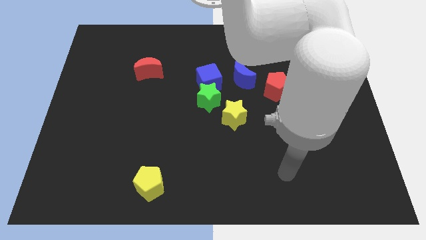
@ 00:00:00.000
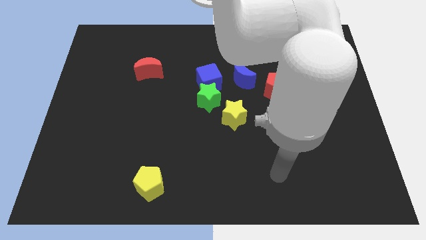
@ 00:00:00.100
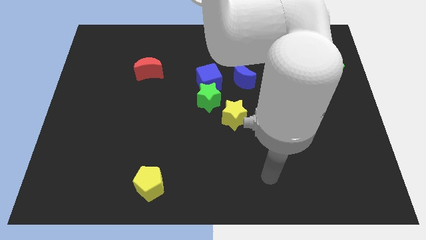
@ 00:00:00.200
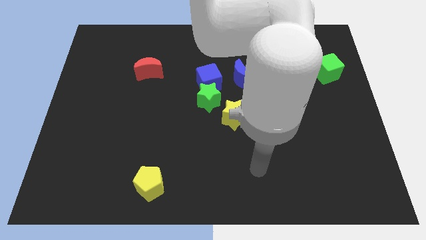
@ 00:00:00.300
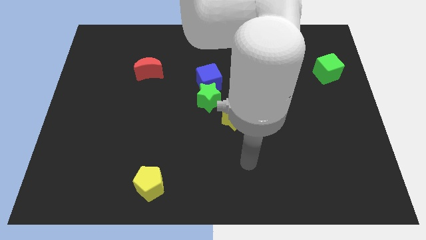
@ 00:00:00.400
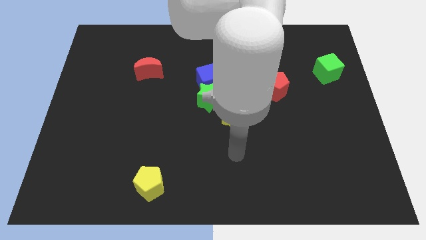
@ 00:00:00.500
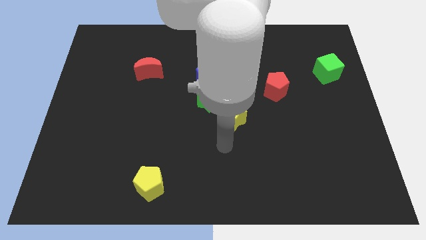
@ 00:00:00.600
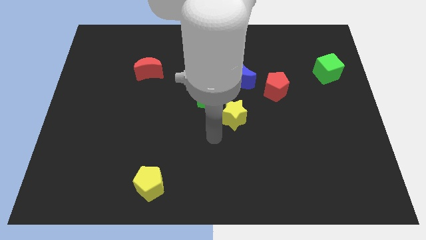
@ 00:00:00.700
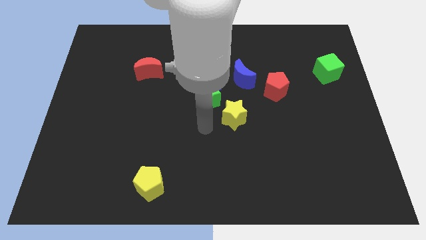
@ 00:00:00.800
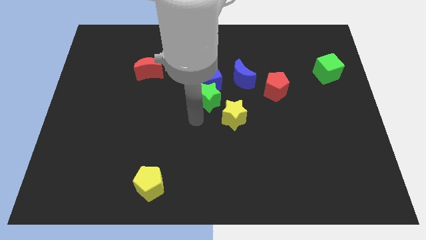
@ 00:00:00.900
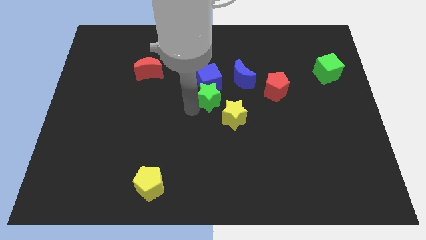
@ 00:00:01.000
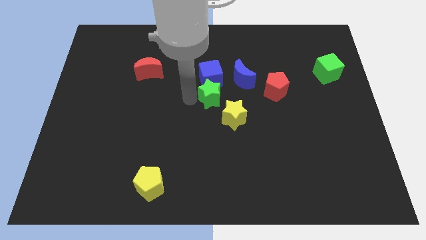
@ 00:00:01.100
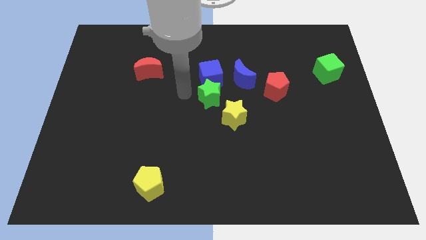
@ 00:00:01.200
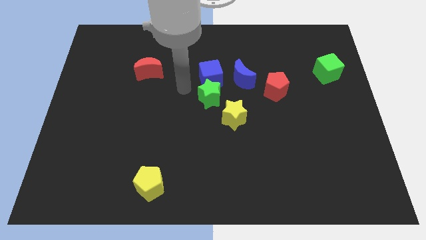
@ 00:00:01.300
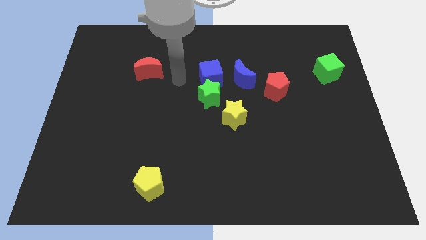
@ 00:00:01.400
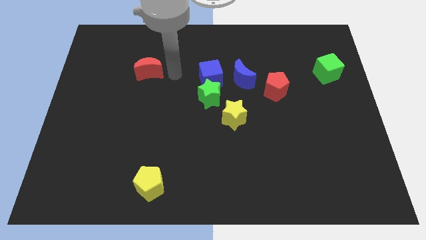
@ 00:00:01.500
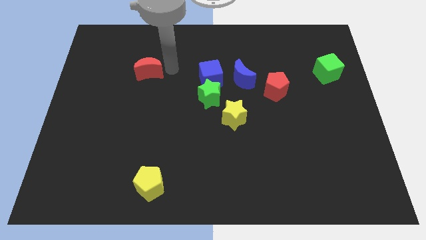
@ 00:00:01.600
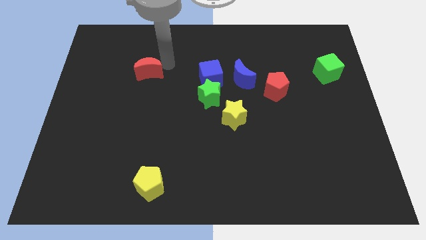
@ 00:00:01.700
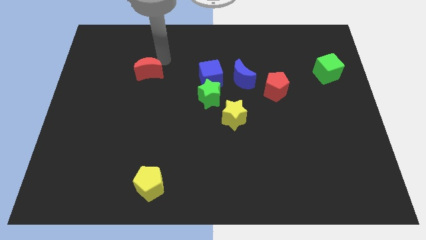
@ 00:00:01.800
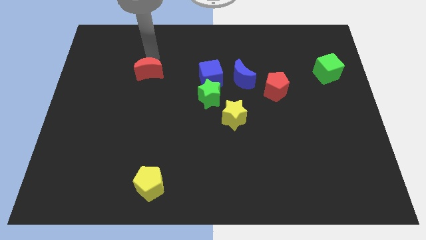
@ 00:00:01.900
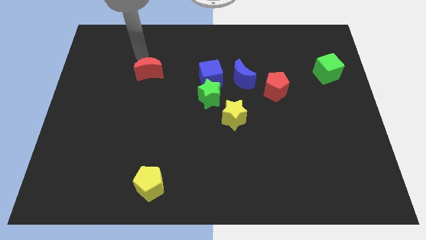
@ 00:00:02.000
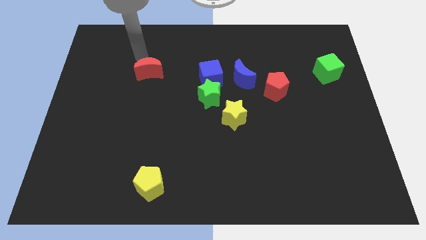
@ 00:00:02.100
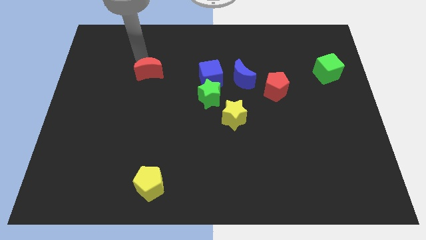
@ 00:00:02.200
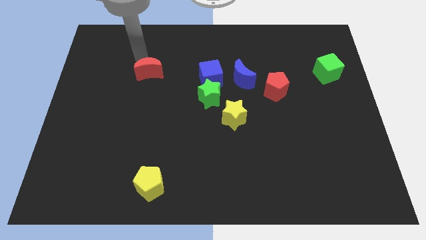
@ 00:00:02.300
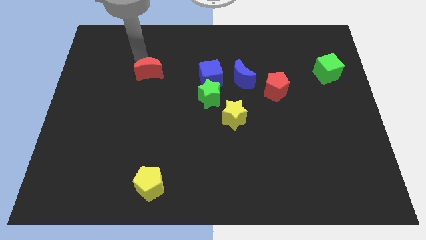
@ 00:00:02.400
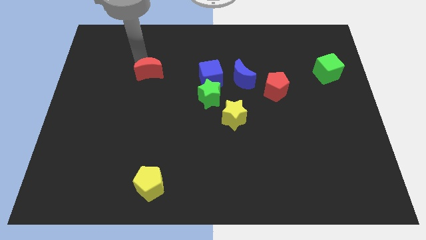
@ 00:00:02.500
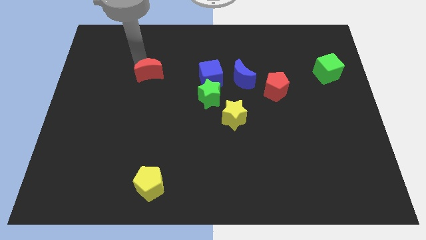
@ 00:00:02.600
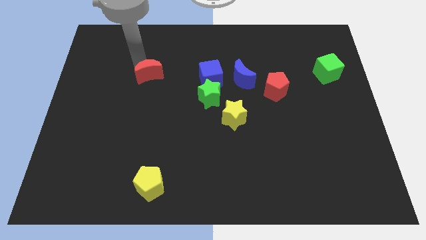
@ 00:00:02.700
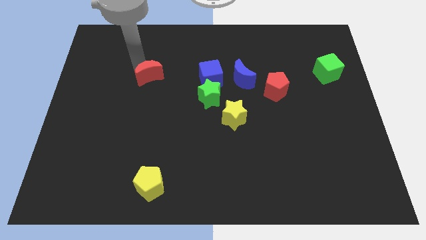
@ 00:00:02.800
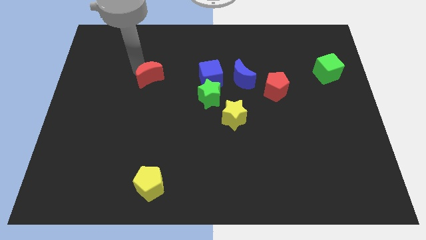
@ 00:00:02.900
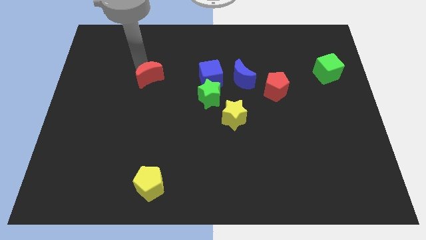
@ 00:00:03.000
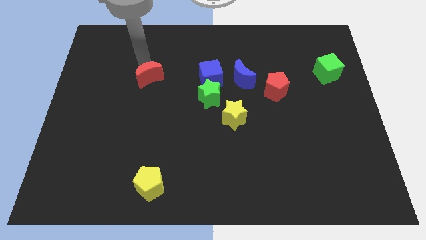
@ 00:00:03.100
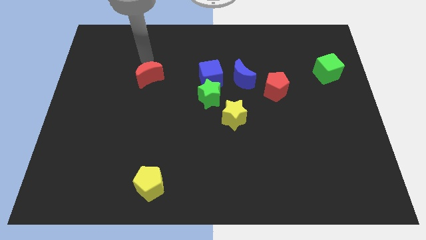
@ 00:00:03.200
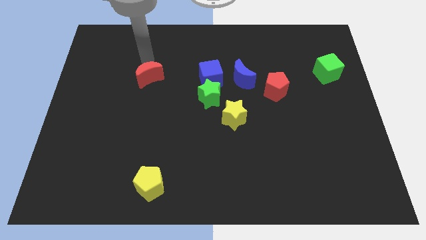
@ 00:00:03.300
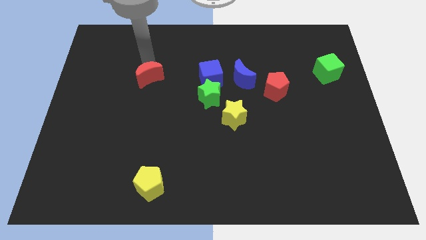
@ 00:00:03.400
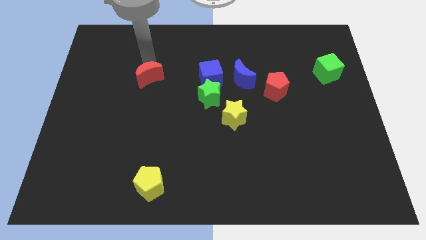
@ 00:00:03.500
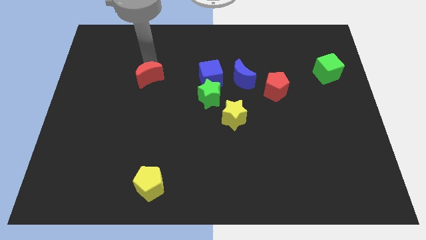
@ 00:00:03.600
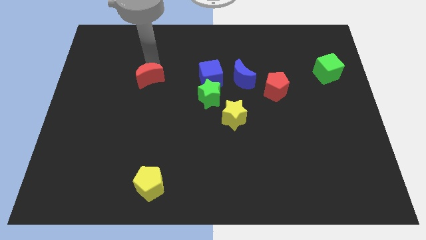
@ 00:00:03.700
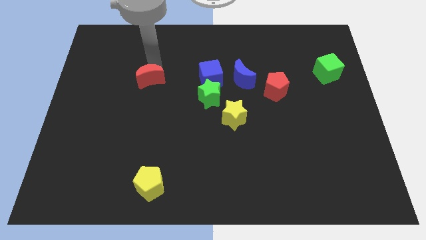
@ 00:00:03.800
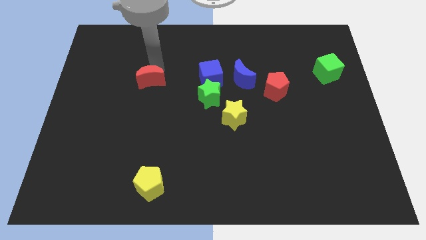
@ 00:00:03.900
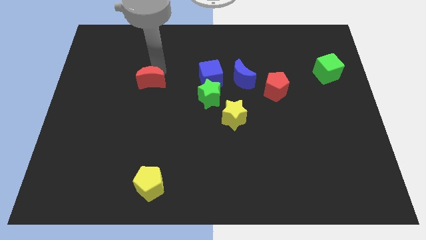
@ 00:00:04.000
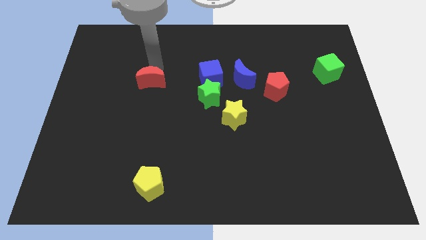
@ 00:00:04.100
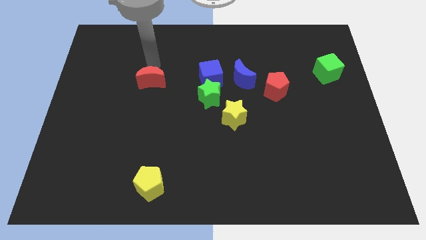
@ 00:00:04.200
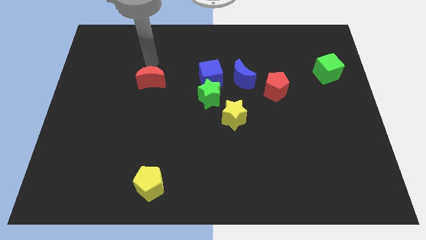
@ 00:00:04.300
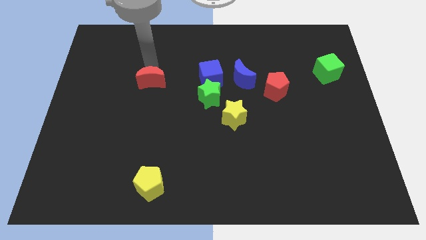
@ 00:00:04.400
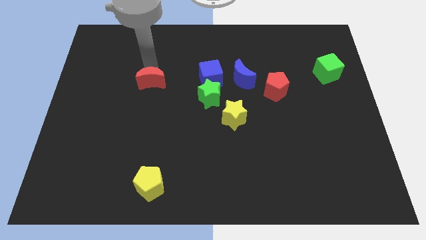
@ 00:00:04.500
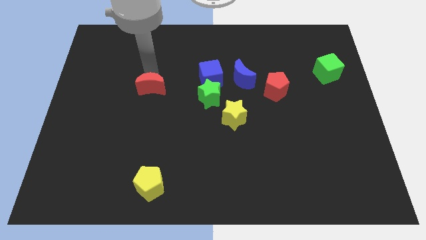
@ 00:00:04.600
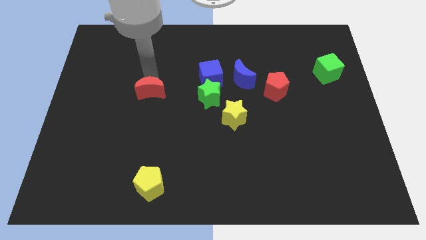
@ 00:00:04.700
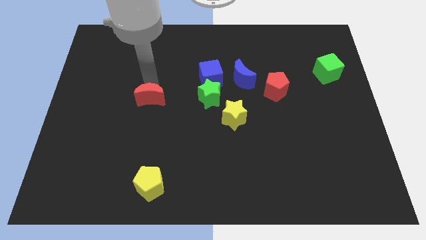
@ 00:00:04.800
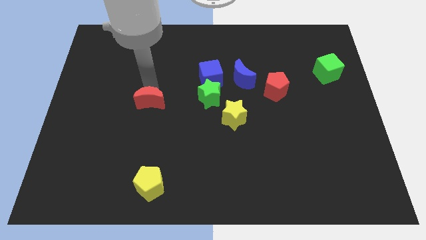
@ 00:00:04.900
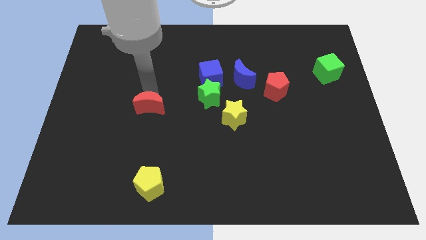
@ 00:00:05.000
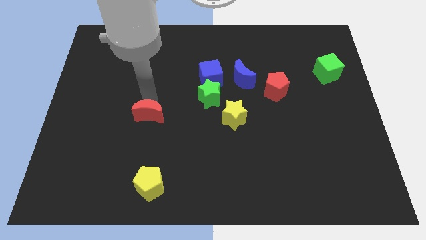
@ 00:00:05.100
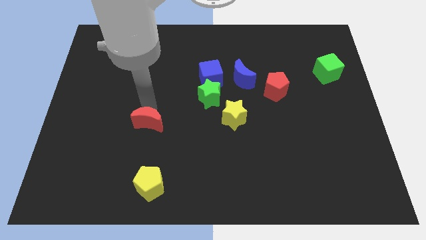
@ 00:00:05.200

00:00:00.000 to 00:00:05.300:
put the red moon above the yellow pentagon

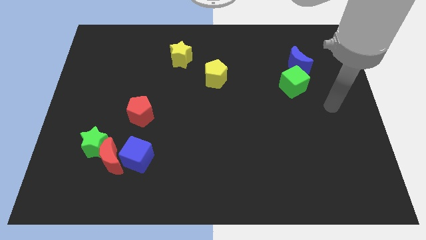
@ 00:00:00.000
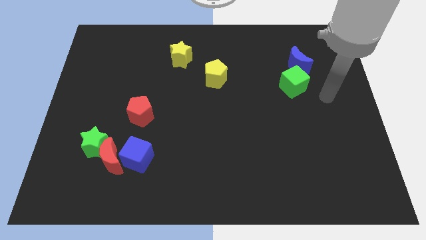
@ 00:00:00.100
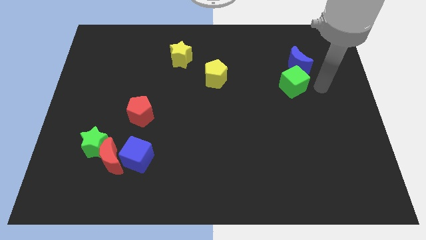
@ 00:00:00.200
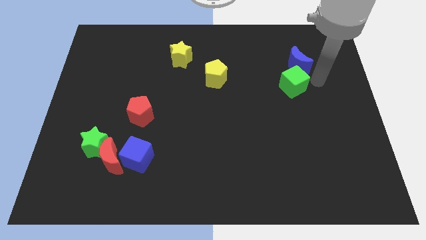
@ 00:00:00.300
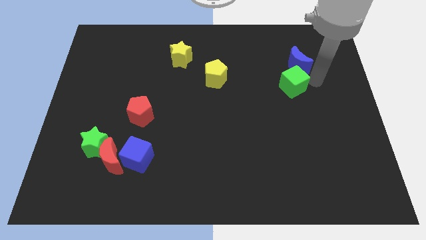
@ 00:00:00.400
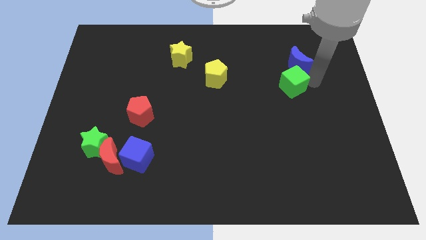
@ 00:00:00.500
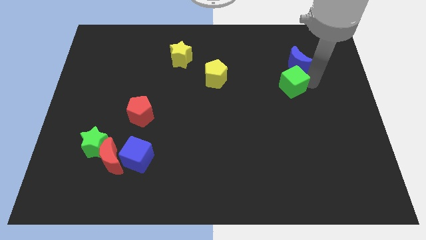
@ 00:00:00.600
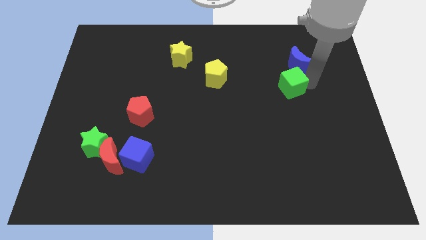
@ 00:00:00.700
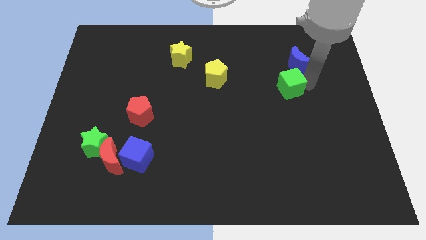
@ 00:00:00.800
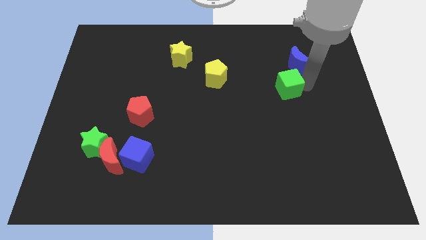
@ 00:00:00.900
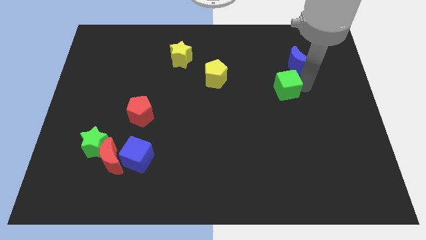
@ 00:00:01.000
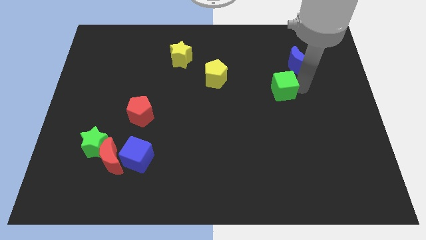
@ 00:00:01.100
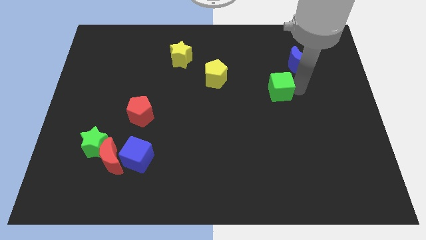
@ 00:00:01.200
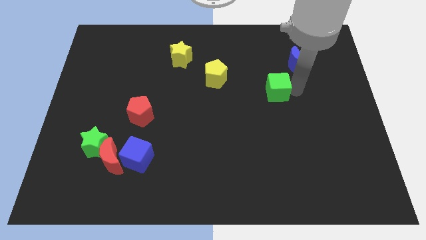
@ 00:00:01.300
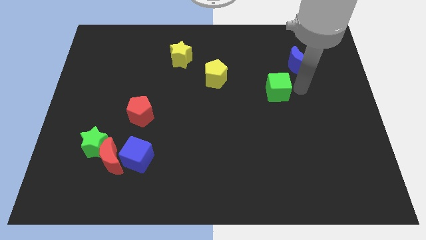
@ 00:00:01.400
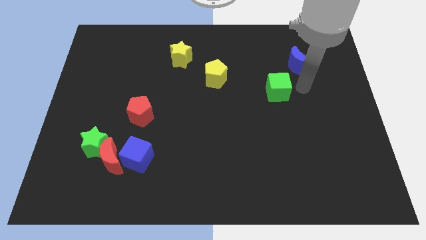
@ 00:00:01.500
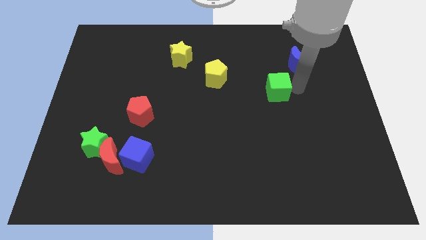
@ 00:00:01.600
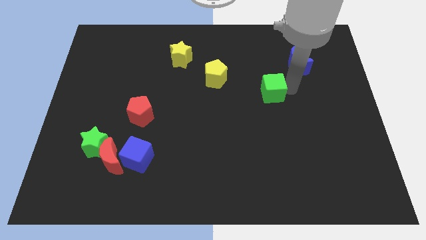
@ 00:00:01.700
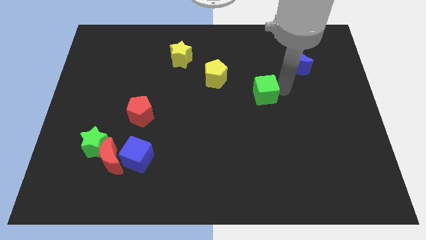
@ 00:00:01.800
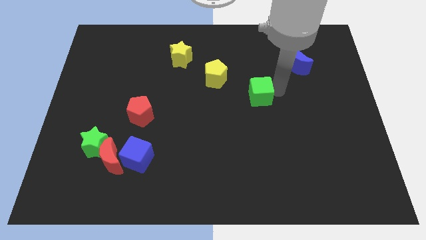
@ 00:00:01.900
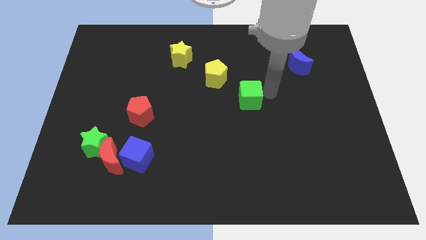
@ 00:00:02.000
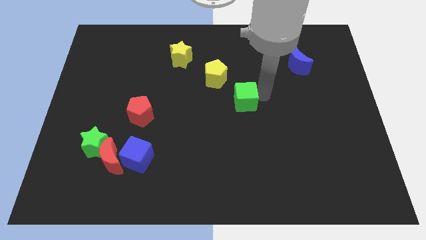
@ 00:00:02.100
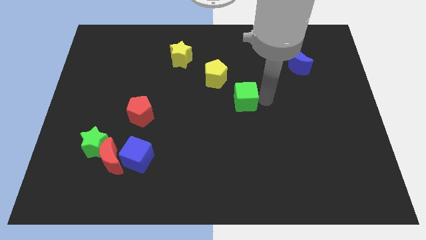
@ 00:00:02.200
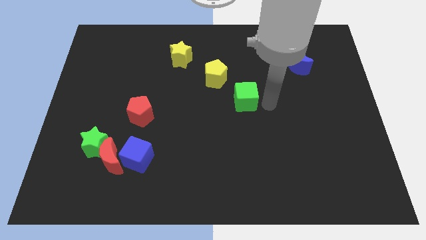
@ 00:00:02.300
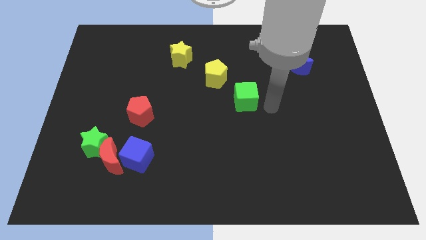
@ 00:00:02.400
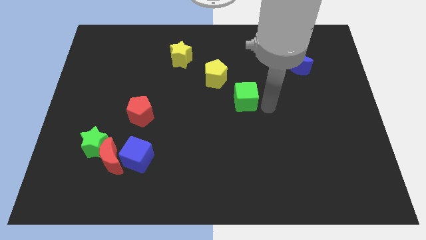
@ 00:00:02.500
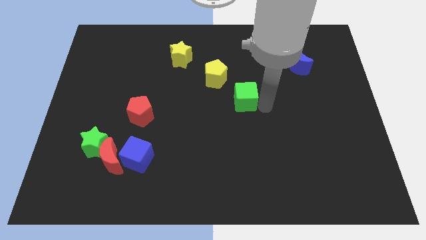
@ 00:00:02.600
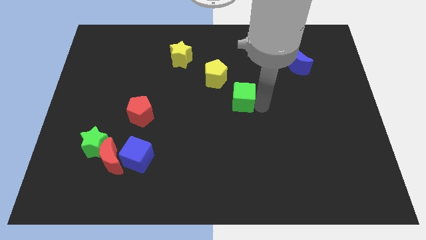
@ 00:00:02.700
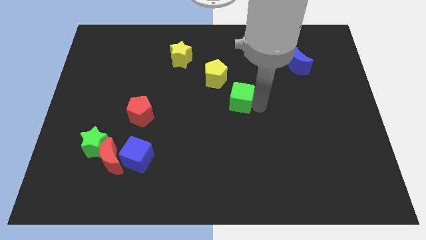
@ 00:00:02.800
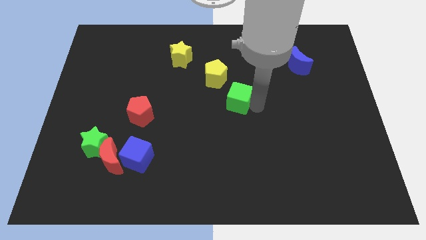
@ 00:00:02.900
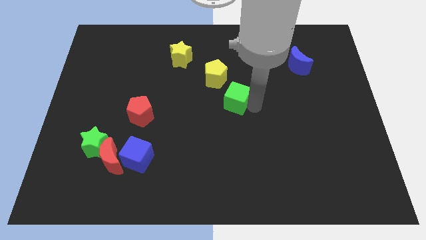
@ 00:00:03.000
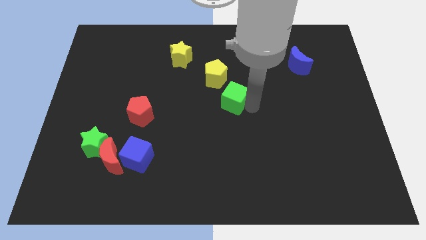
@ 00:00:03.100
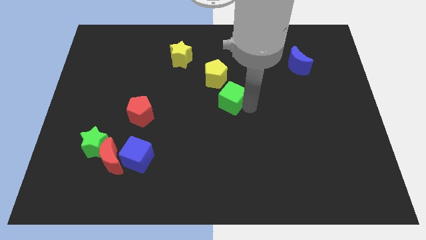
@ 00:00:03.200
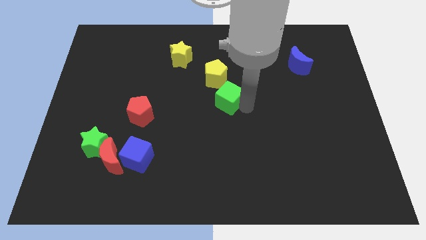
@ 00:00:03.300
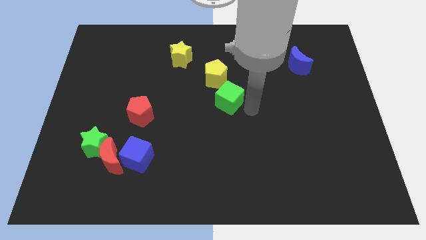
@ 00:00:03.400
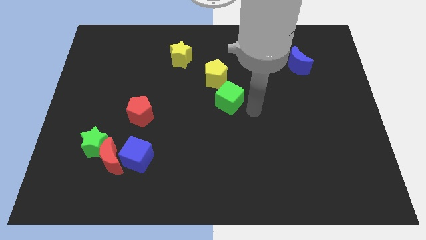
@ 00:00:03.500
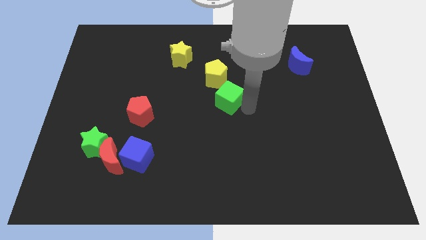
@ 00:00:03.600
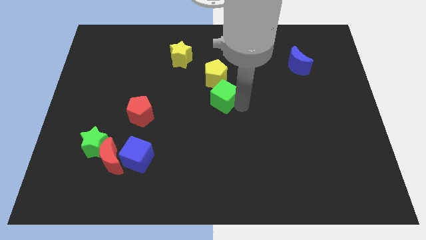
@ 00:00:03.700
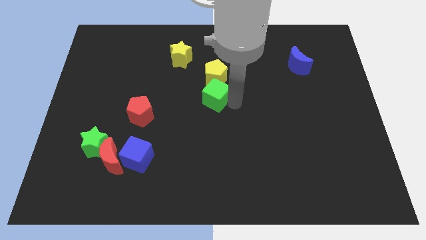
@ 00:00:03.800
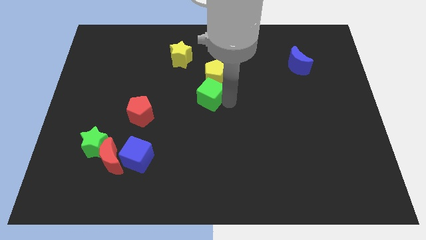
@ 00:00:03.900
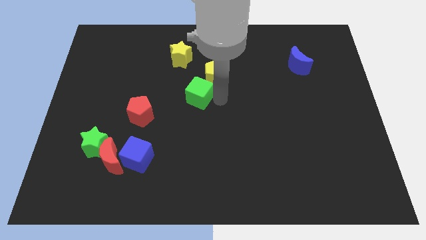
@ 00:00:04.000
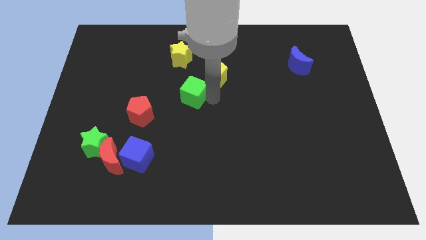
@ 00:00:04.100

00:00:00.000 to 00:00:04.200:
put the green cube to the bottom of the yellow star
